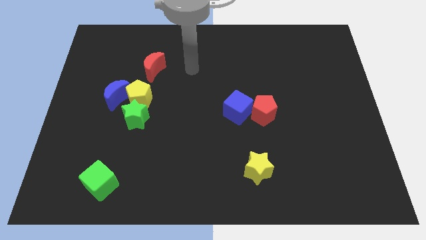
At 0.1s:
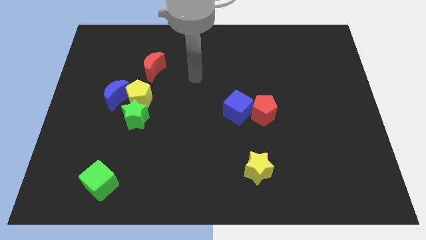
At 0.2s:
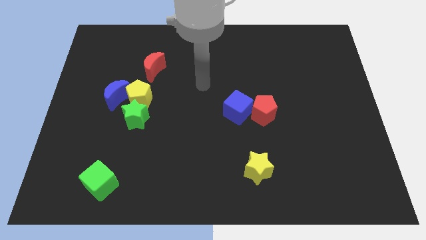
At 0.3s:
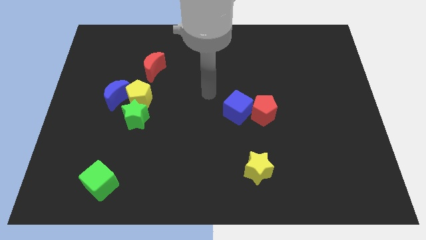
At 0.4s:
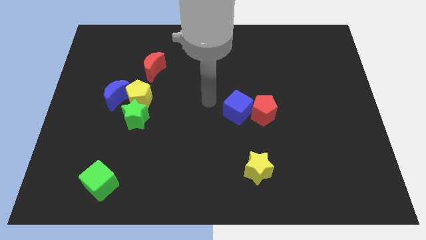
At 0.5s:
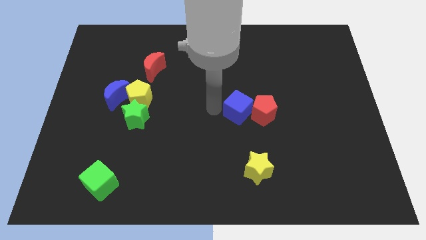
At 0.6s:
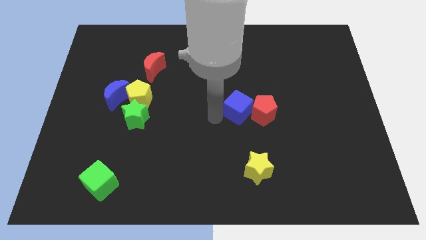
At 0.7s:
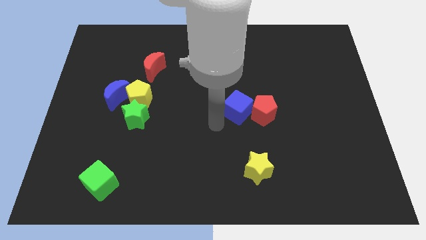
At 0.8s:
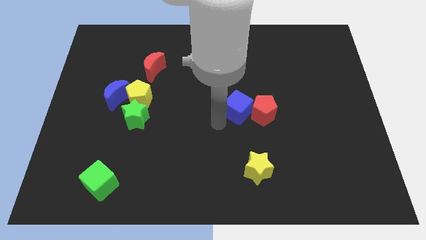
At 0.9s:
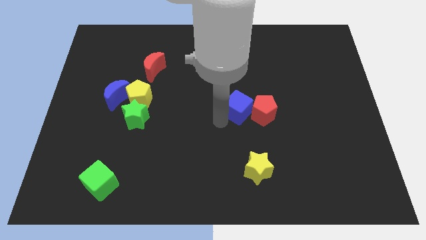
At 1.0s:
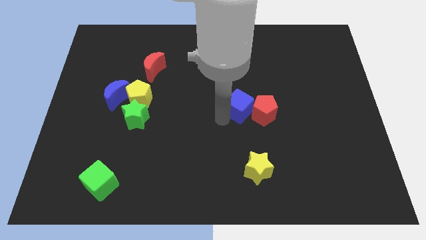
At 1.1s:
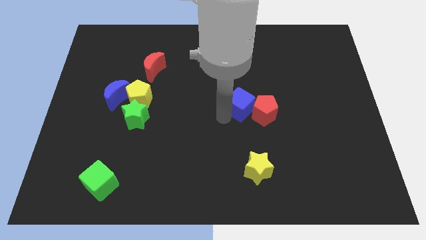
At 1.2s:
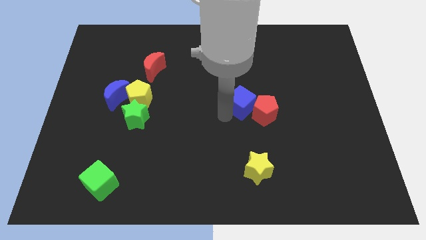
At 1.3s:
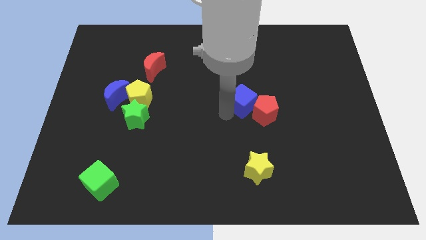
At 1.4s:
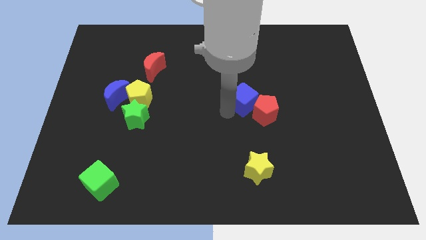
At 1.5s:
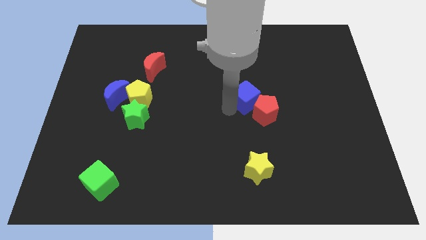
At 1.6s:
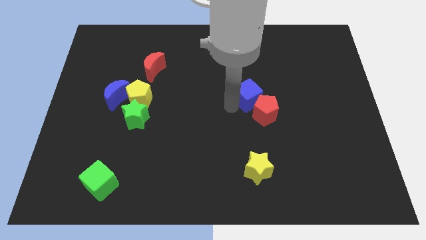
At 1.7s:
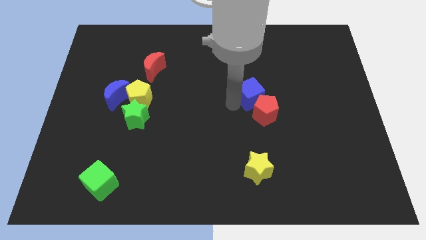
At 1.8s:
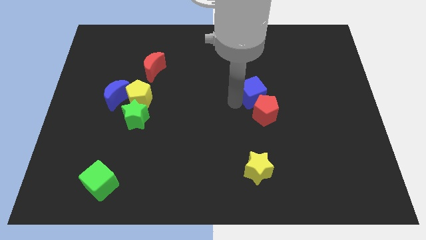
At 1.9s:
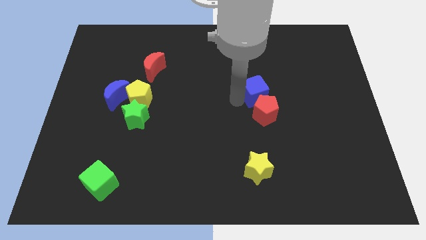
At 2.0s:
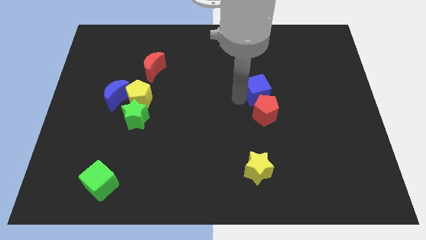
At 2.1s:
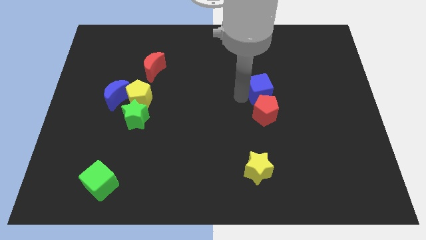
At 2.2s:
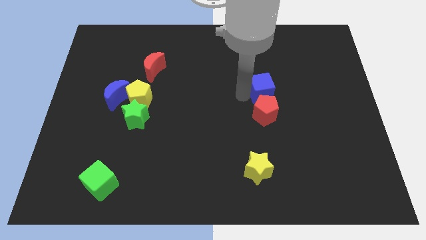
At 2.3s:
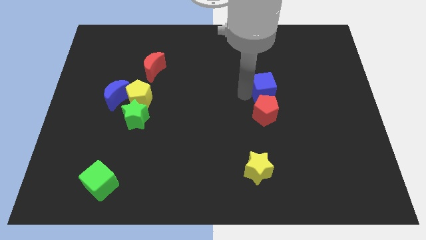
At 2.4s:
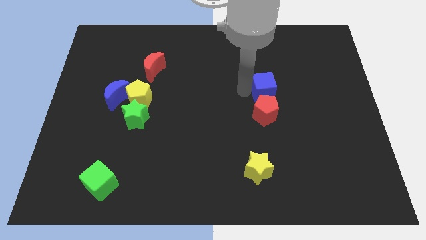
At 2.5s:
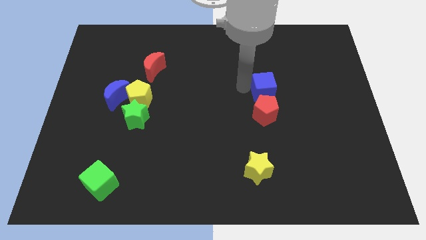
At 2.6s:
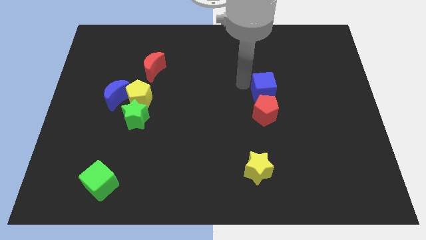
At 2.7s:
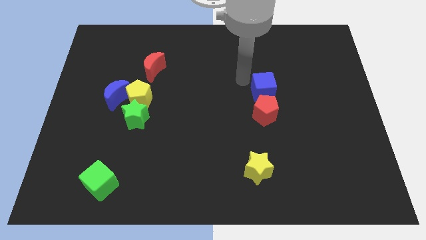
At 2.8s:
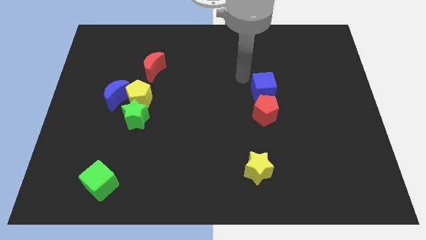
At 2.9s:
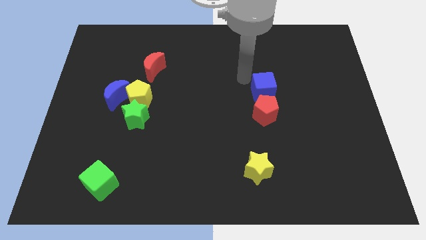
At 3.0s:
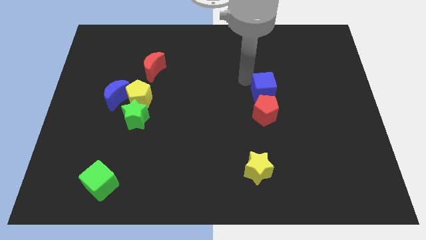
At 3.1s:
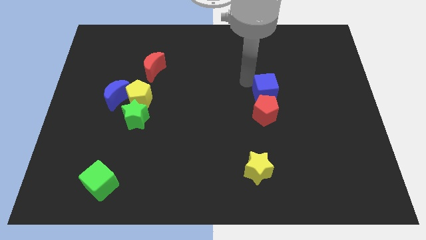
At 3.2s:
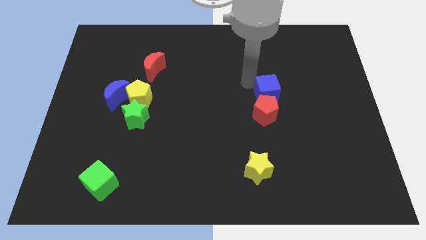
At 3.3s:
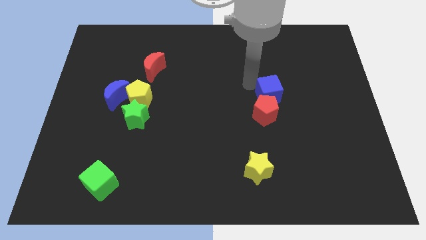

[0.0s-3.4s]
move the blue cube a bit right

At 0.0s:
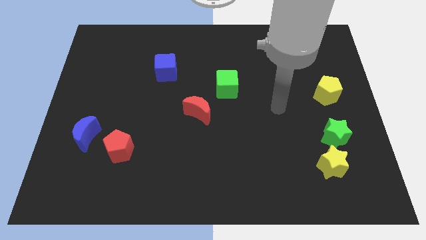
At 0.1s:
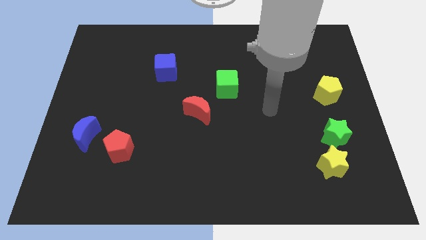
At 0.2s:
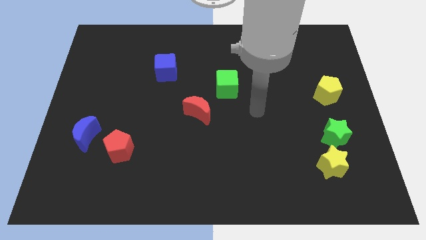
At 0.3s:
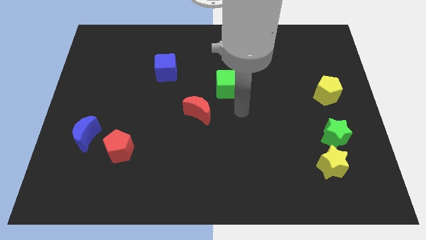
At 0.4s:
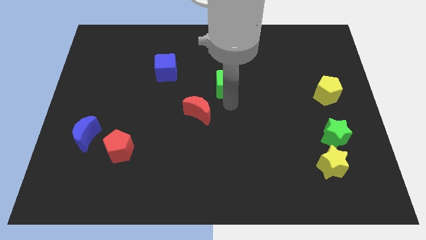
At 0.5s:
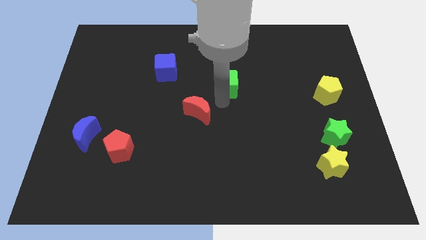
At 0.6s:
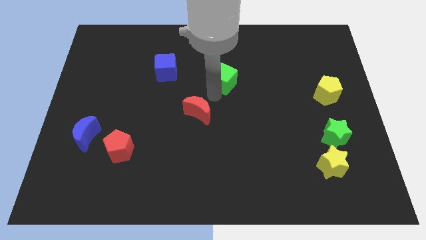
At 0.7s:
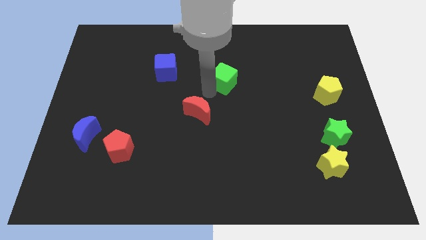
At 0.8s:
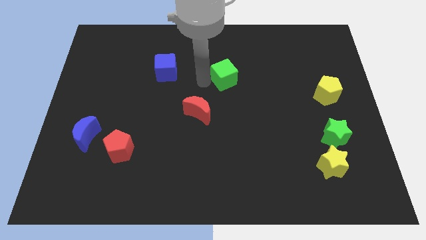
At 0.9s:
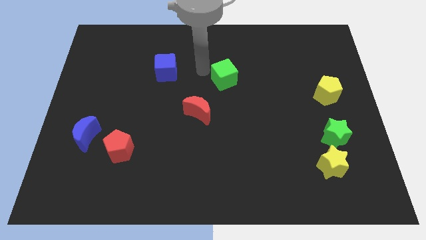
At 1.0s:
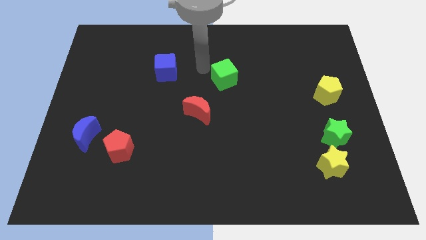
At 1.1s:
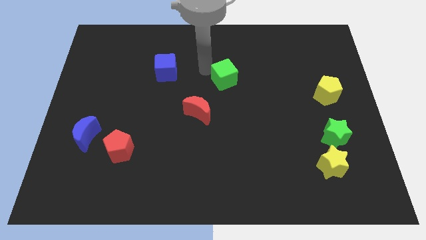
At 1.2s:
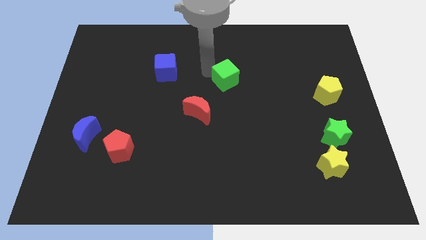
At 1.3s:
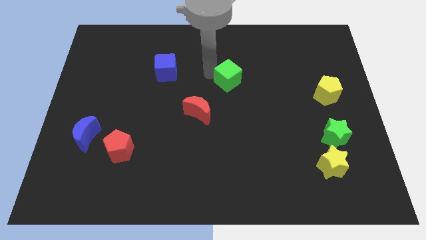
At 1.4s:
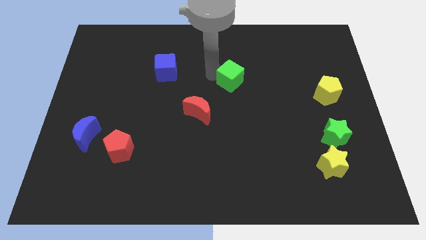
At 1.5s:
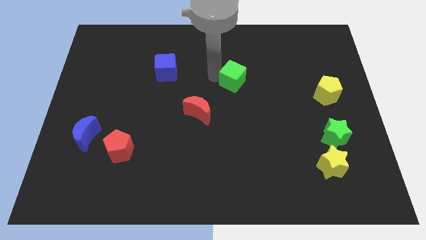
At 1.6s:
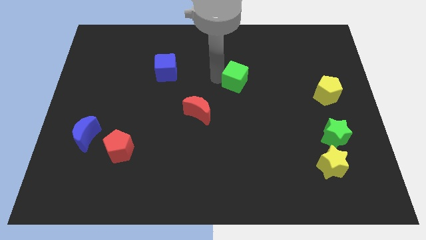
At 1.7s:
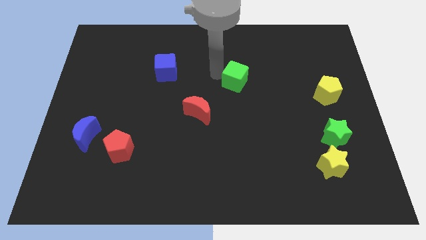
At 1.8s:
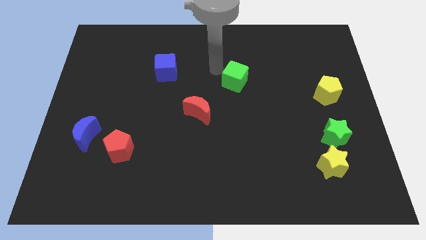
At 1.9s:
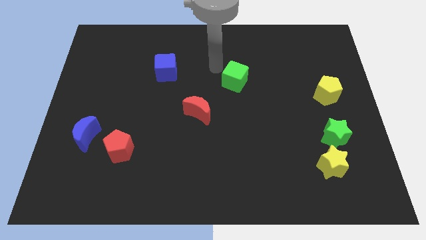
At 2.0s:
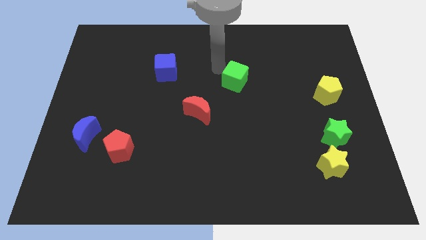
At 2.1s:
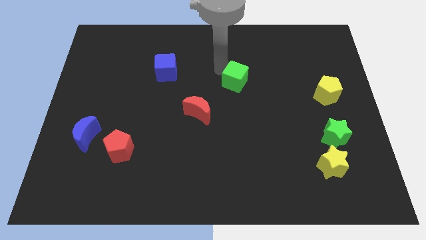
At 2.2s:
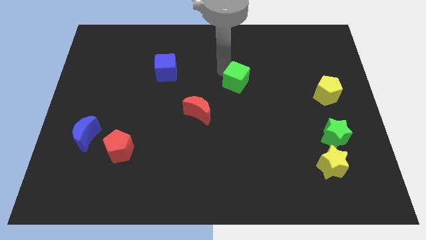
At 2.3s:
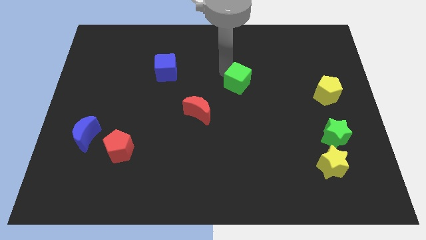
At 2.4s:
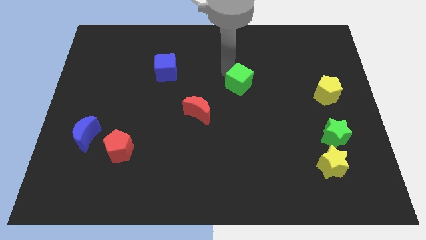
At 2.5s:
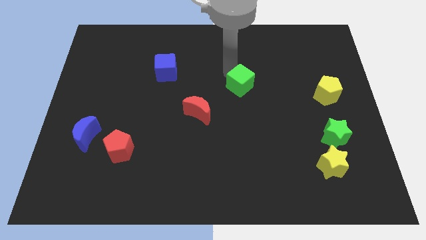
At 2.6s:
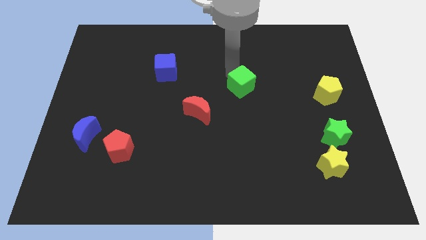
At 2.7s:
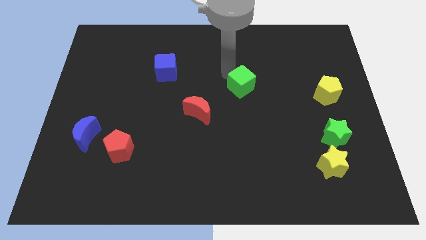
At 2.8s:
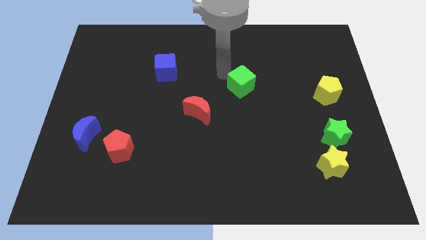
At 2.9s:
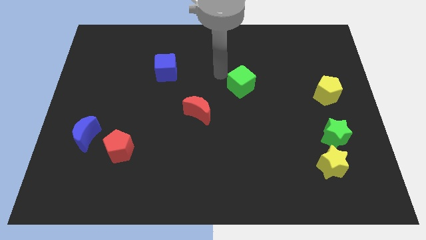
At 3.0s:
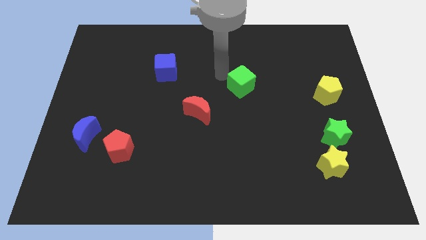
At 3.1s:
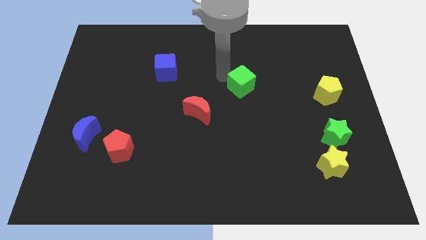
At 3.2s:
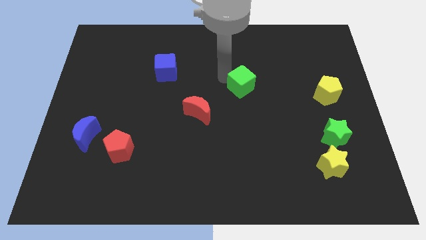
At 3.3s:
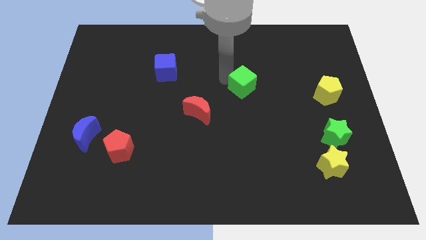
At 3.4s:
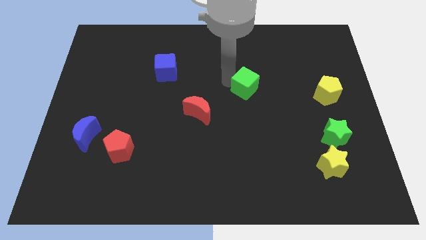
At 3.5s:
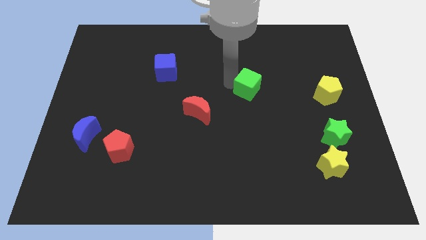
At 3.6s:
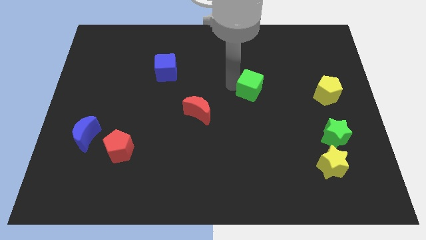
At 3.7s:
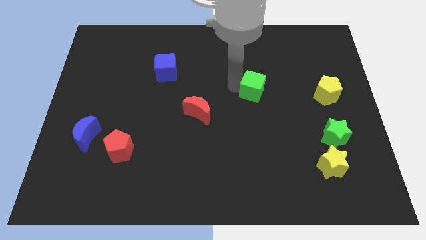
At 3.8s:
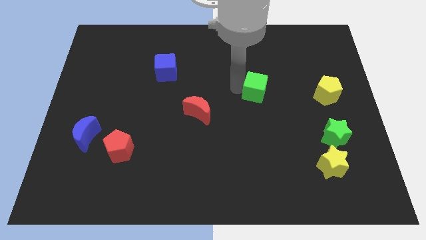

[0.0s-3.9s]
push the green cube to the right somewhat

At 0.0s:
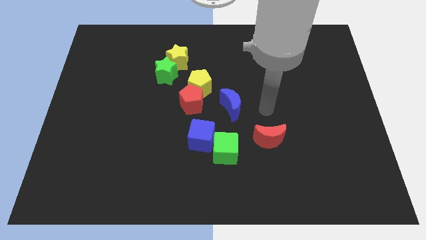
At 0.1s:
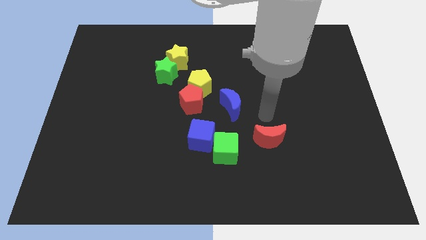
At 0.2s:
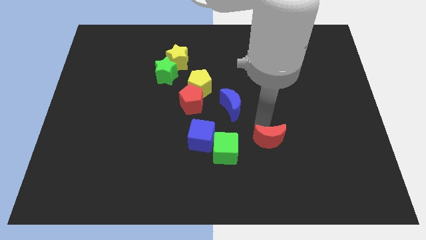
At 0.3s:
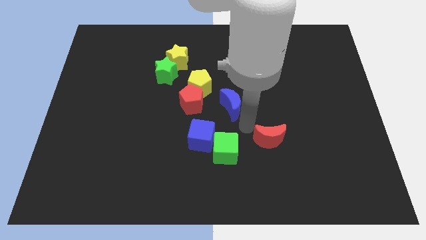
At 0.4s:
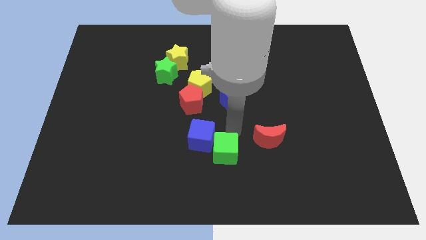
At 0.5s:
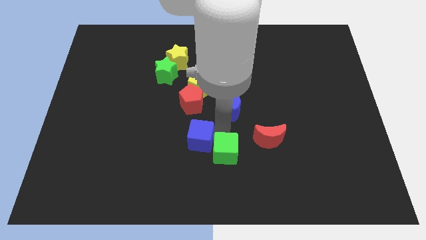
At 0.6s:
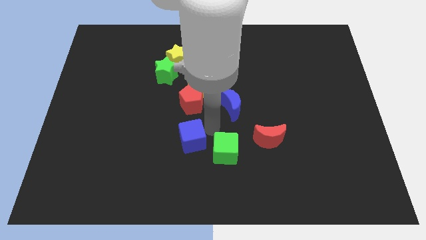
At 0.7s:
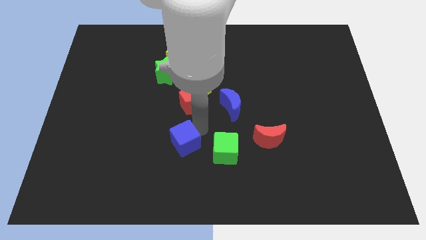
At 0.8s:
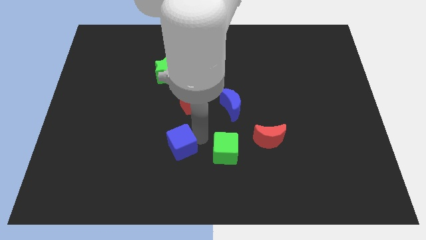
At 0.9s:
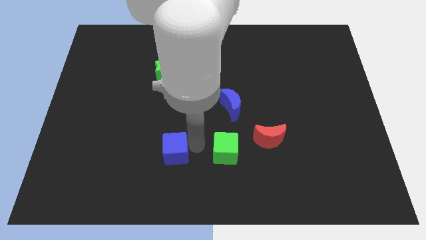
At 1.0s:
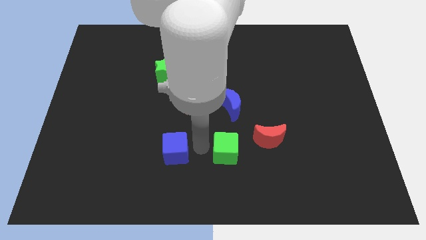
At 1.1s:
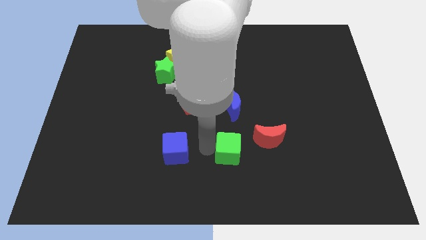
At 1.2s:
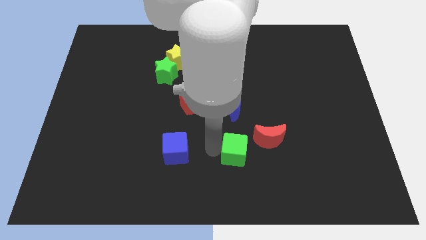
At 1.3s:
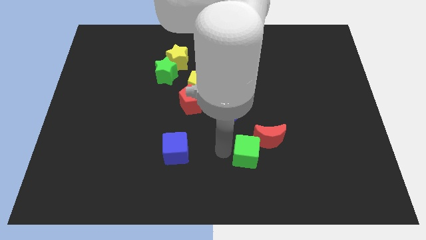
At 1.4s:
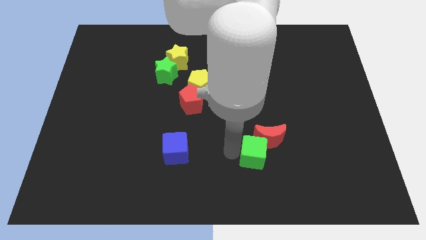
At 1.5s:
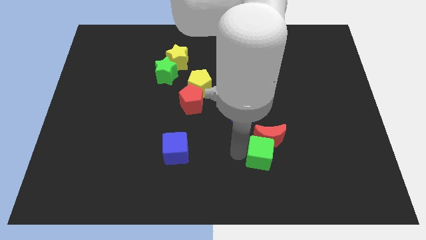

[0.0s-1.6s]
slightly slide the green cube to the right
